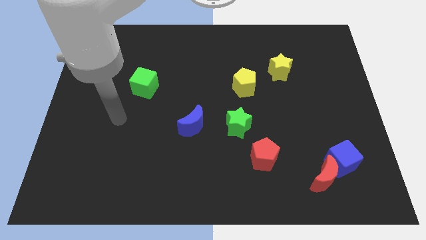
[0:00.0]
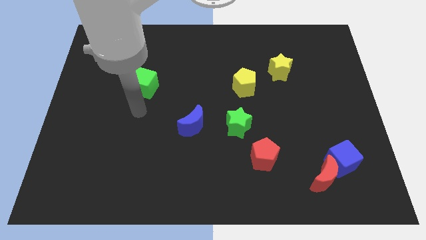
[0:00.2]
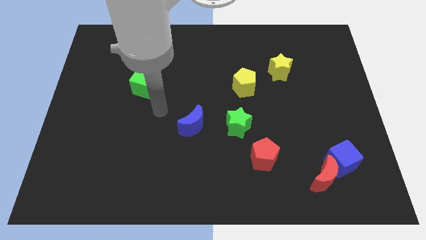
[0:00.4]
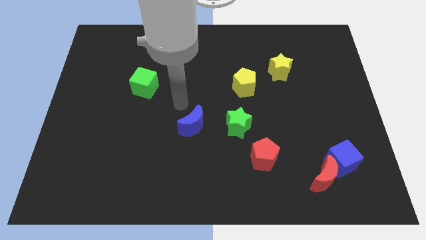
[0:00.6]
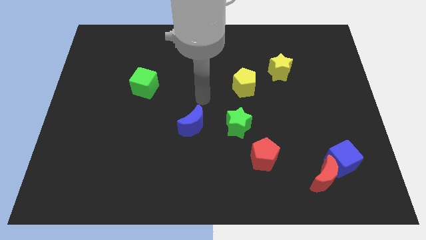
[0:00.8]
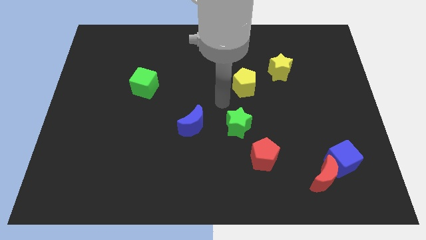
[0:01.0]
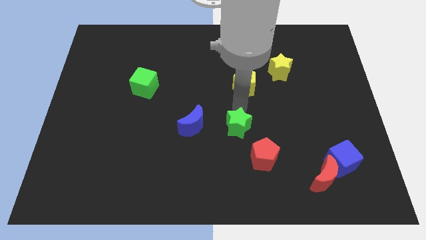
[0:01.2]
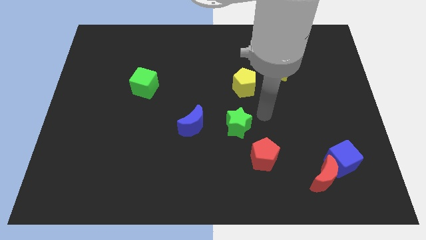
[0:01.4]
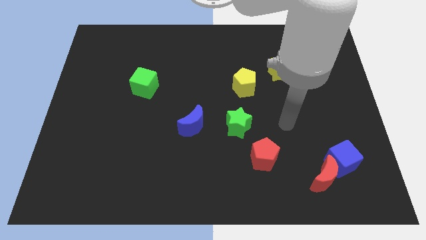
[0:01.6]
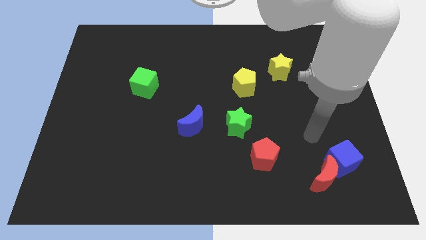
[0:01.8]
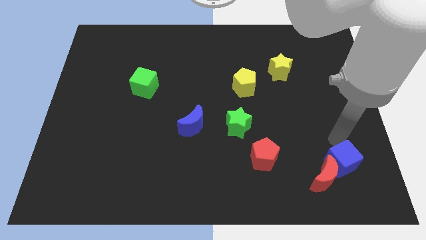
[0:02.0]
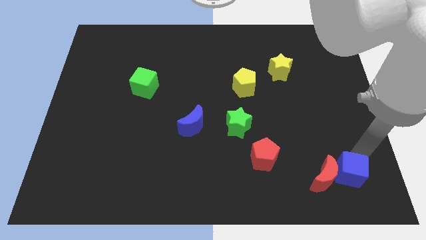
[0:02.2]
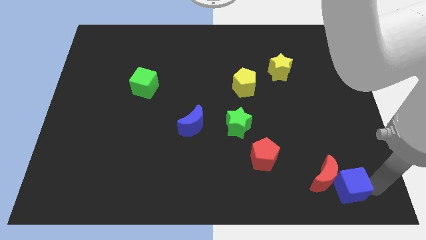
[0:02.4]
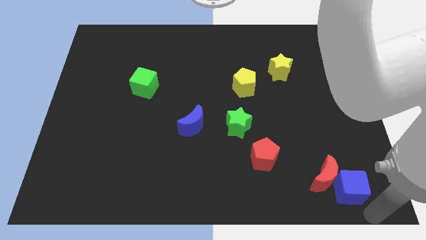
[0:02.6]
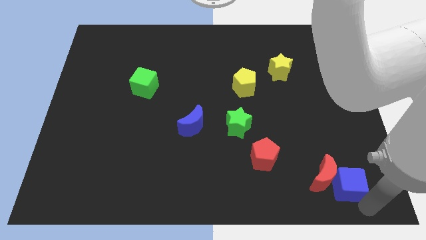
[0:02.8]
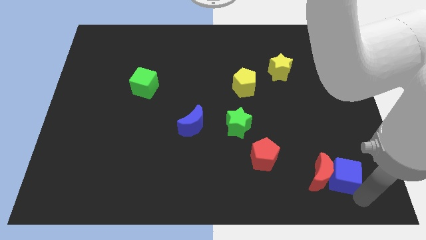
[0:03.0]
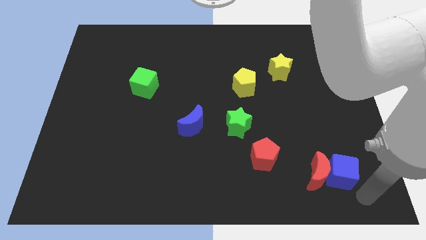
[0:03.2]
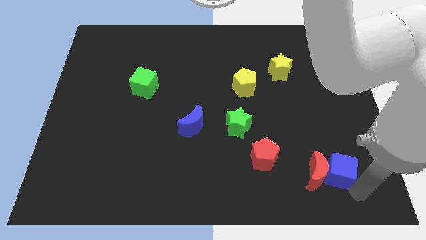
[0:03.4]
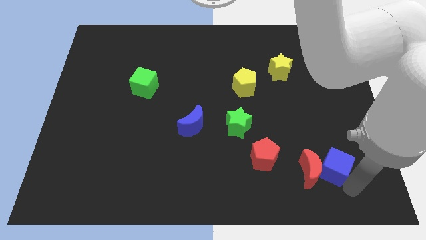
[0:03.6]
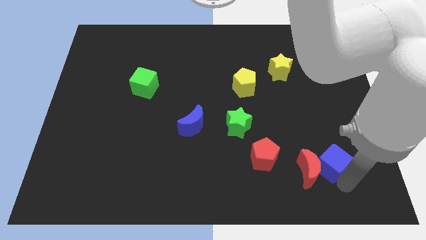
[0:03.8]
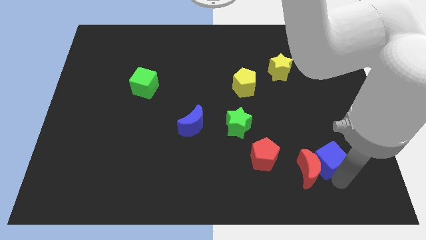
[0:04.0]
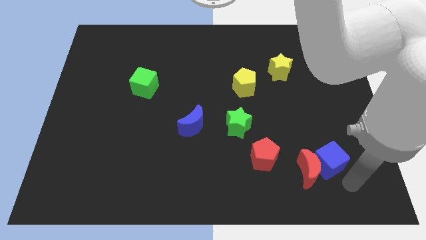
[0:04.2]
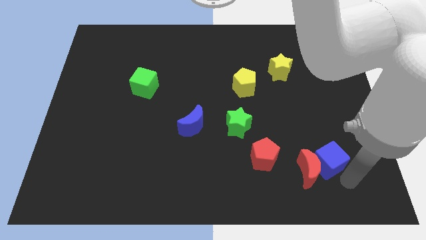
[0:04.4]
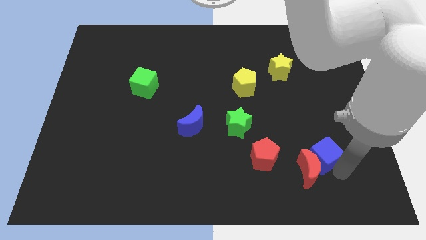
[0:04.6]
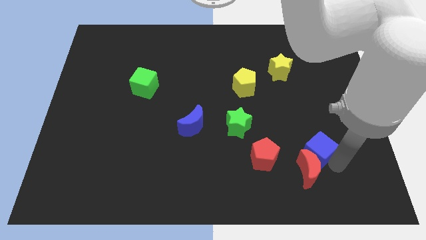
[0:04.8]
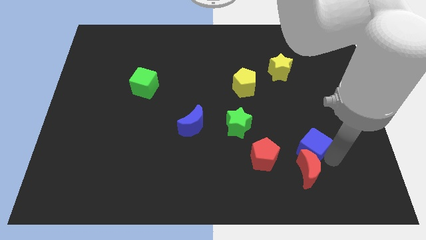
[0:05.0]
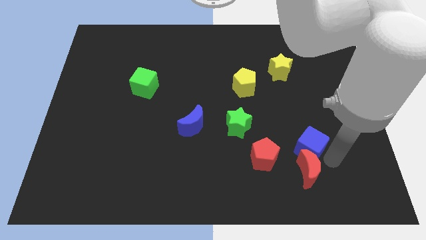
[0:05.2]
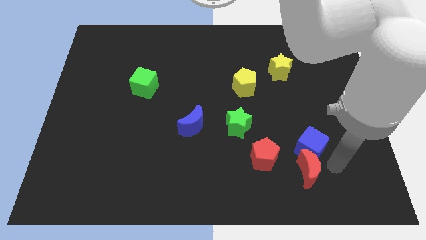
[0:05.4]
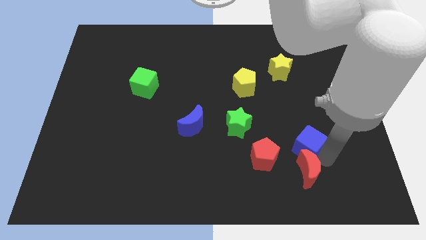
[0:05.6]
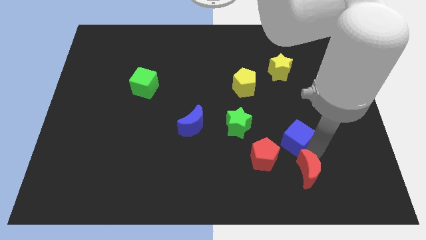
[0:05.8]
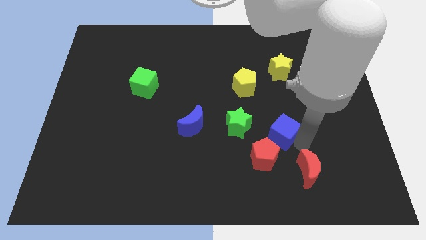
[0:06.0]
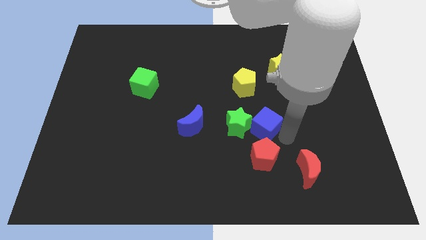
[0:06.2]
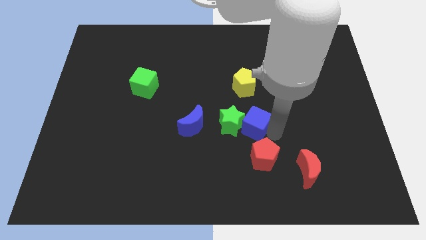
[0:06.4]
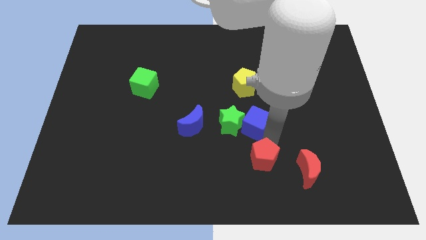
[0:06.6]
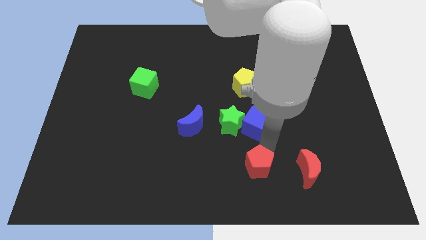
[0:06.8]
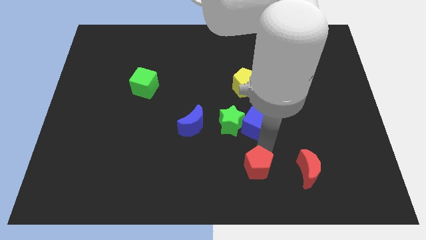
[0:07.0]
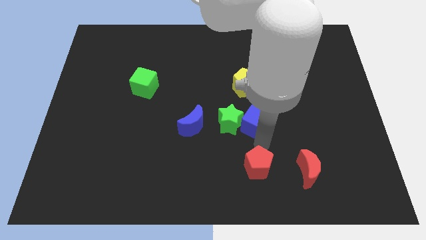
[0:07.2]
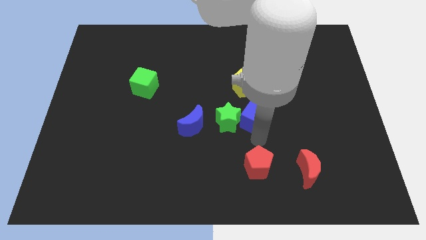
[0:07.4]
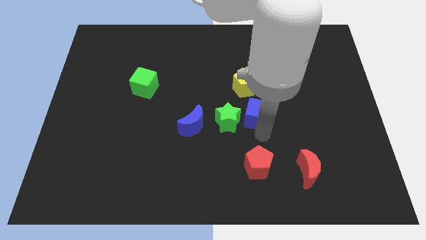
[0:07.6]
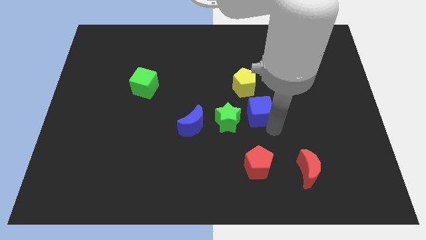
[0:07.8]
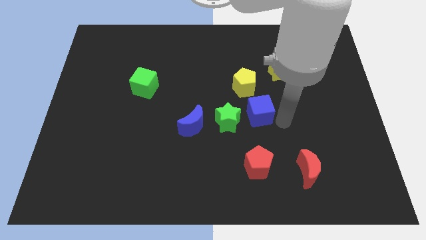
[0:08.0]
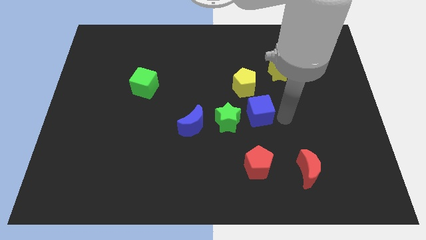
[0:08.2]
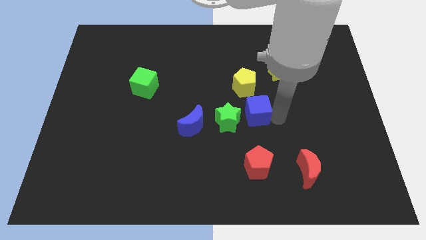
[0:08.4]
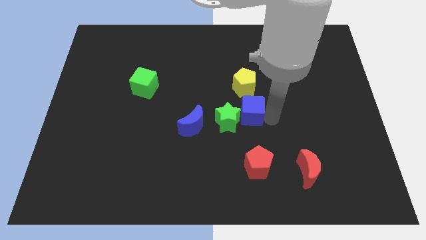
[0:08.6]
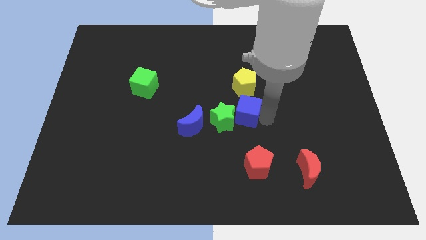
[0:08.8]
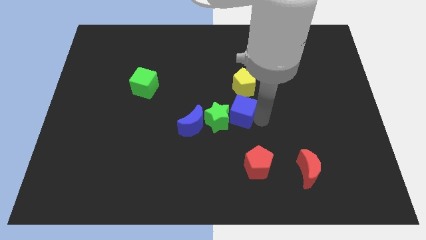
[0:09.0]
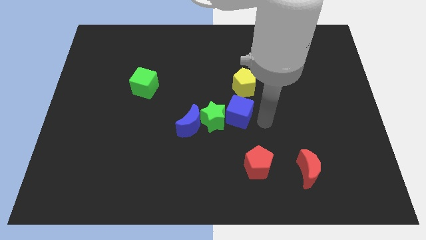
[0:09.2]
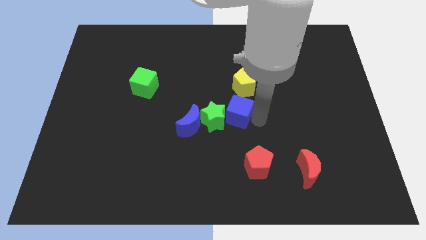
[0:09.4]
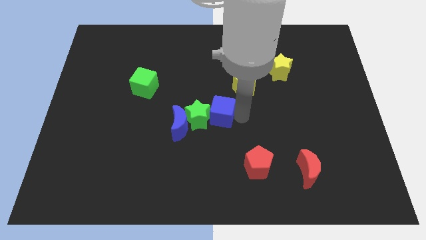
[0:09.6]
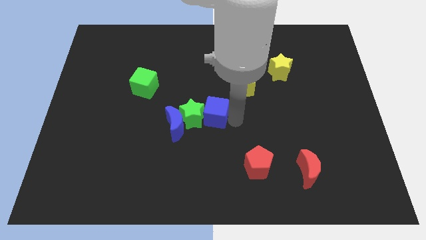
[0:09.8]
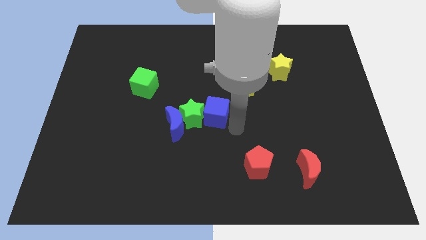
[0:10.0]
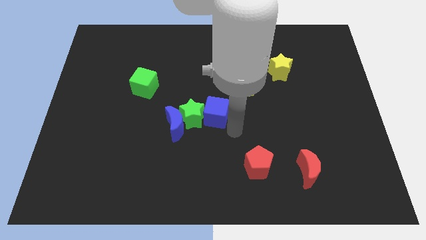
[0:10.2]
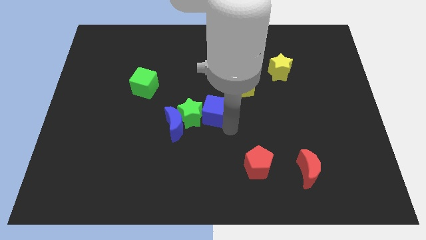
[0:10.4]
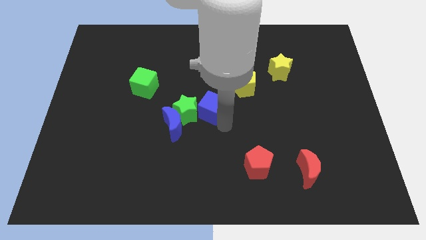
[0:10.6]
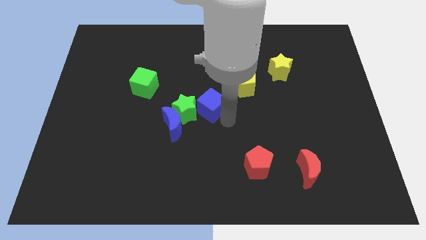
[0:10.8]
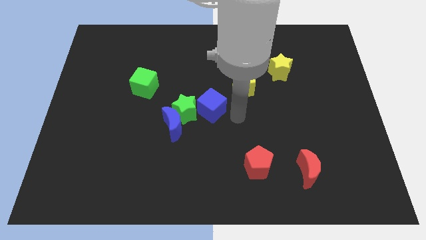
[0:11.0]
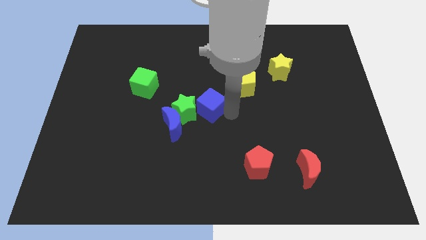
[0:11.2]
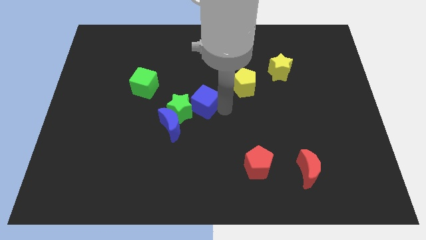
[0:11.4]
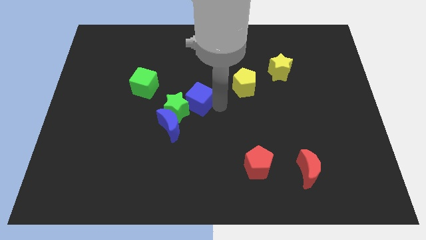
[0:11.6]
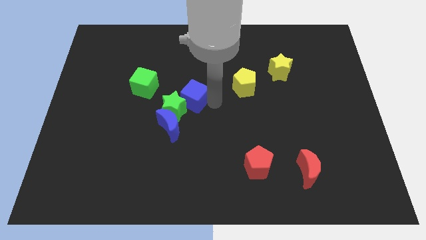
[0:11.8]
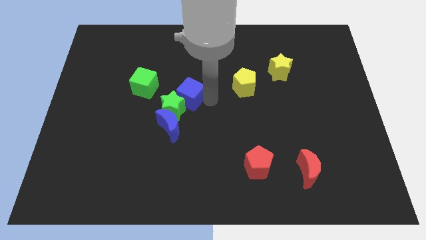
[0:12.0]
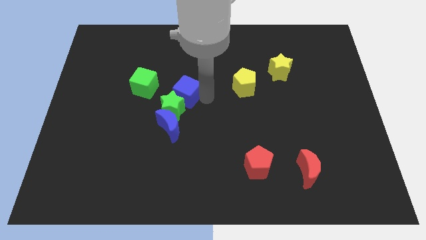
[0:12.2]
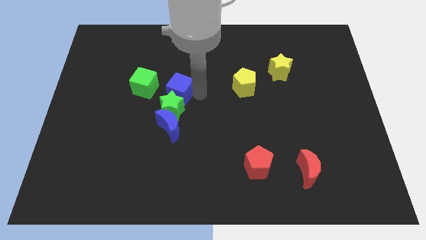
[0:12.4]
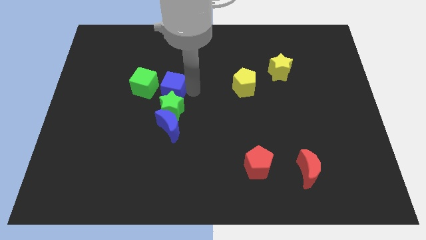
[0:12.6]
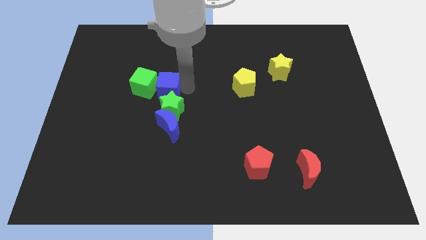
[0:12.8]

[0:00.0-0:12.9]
move the blue cube close to the green cube
